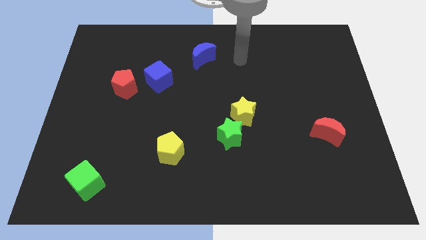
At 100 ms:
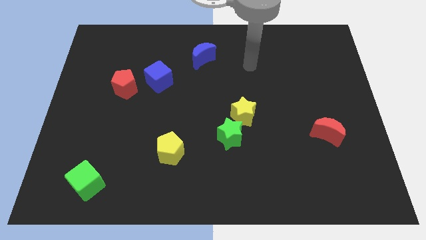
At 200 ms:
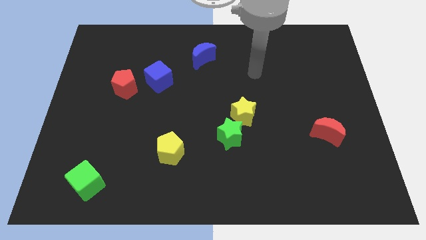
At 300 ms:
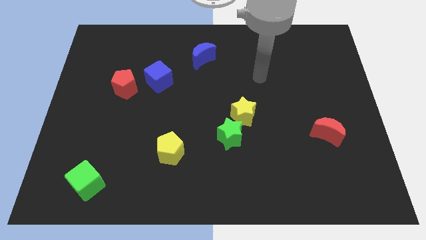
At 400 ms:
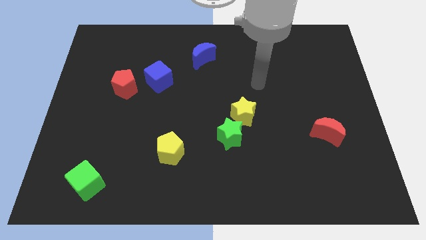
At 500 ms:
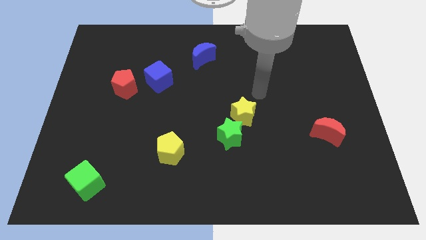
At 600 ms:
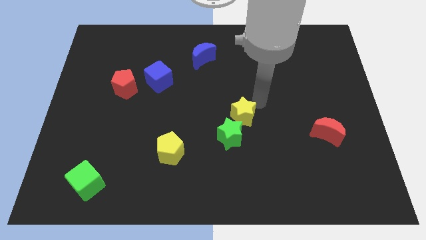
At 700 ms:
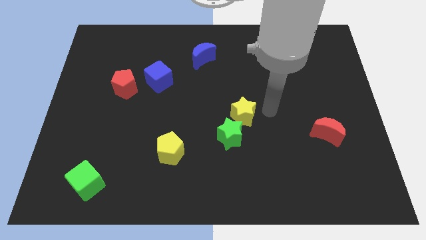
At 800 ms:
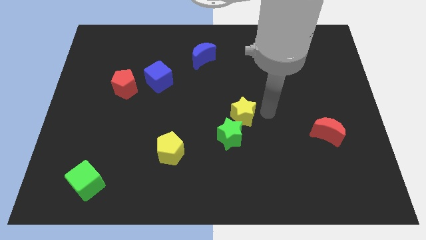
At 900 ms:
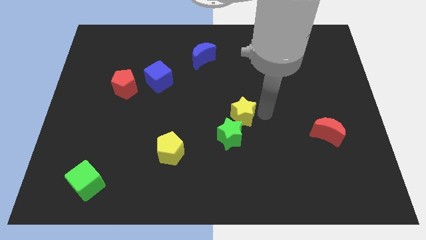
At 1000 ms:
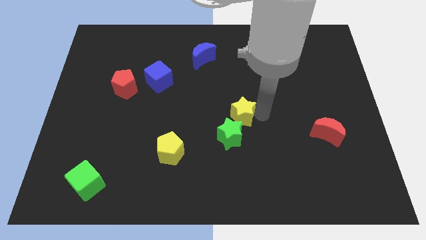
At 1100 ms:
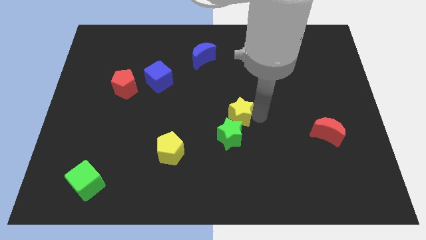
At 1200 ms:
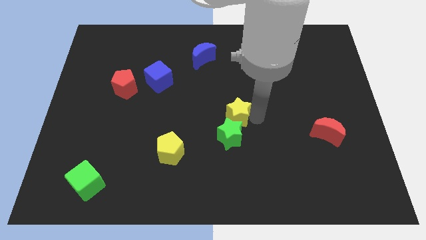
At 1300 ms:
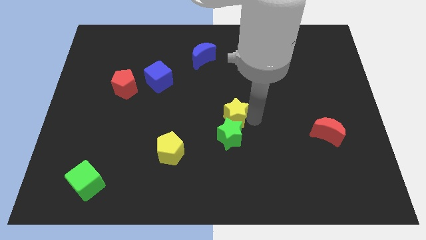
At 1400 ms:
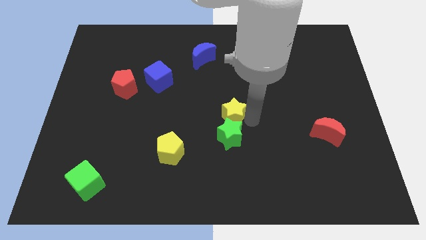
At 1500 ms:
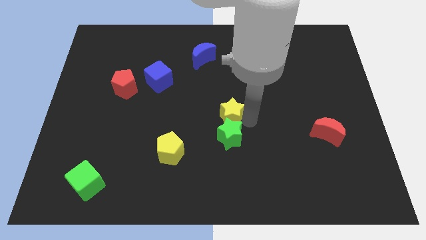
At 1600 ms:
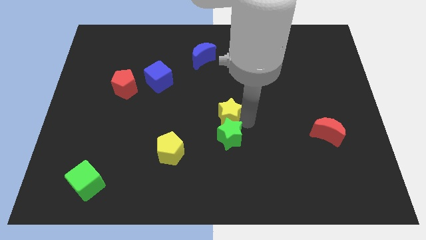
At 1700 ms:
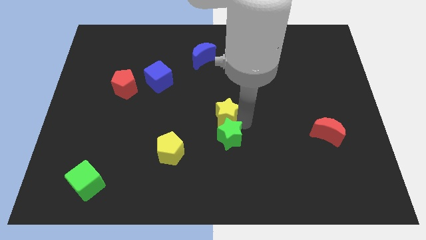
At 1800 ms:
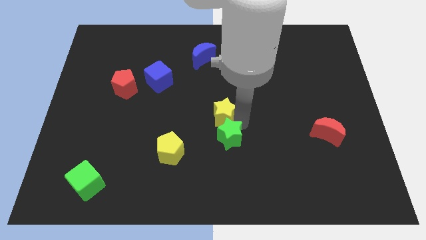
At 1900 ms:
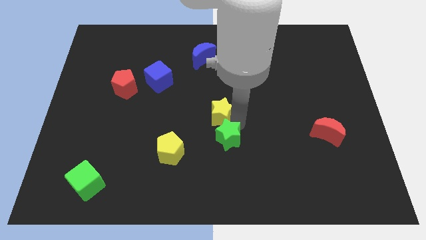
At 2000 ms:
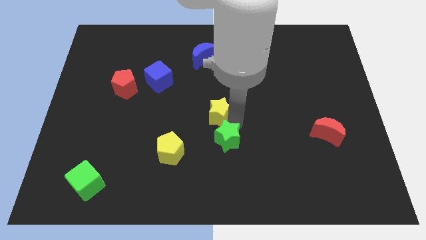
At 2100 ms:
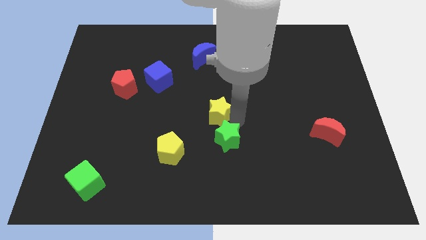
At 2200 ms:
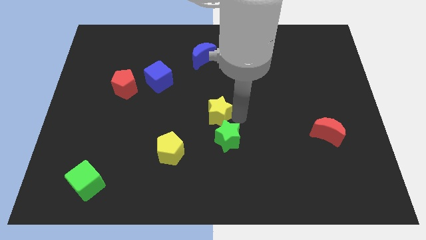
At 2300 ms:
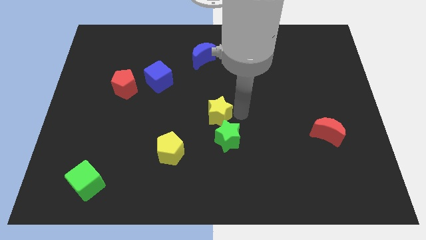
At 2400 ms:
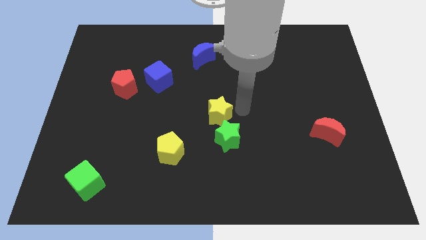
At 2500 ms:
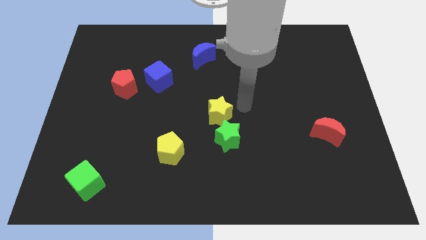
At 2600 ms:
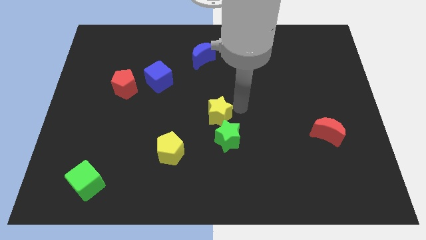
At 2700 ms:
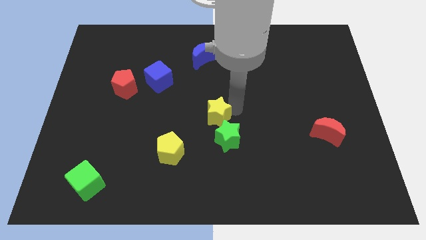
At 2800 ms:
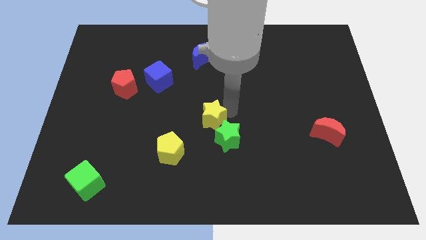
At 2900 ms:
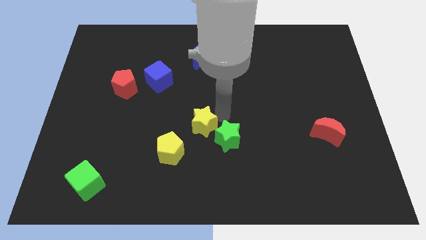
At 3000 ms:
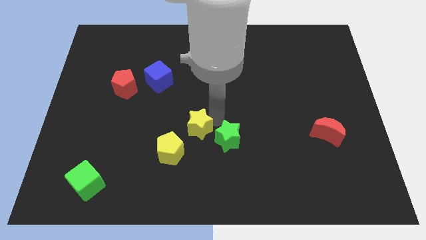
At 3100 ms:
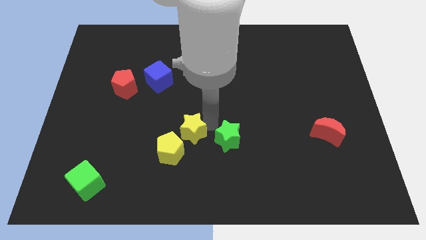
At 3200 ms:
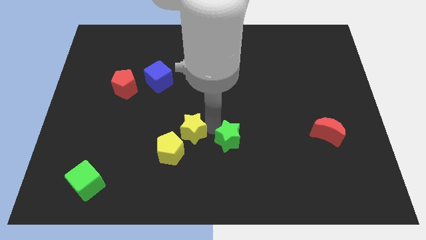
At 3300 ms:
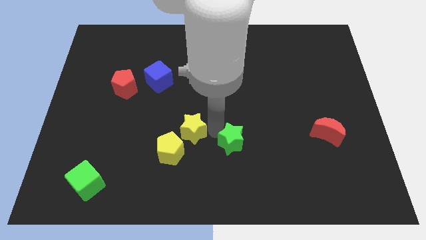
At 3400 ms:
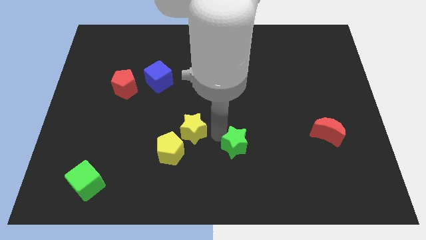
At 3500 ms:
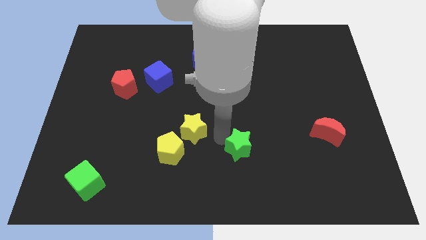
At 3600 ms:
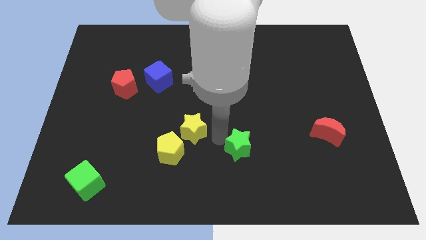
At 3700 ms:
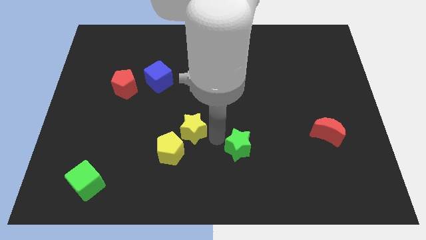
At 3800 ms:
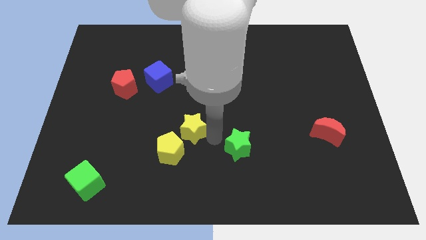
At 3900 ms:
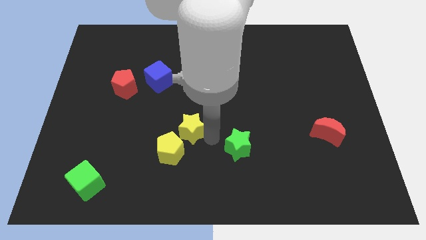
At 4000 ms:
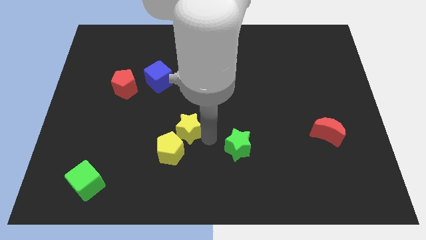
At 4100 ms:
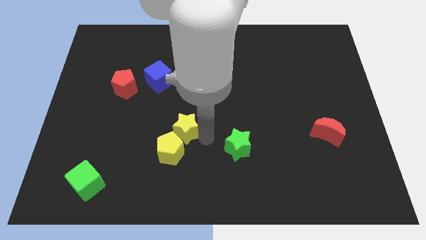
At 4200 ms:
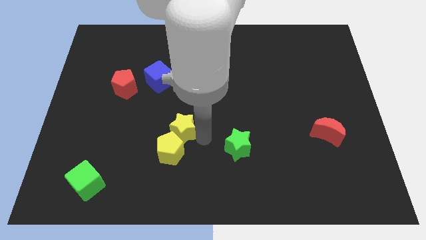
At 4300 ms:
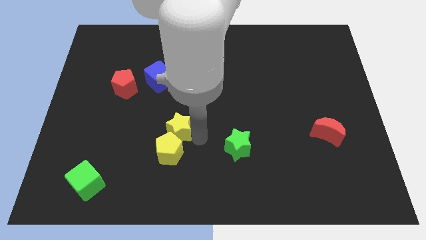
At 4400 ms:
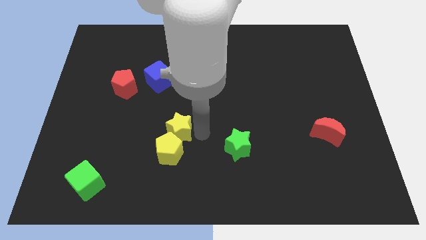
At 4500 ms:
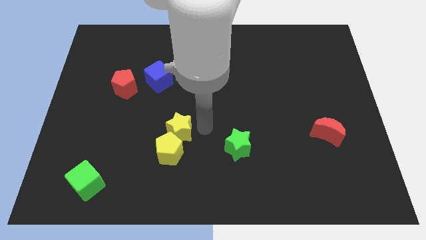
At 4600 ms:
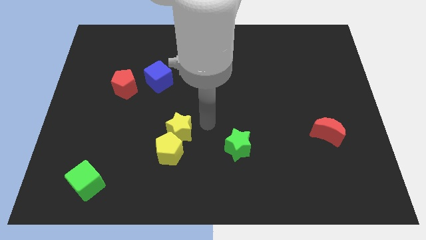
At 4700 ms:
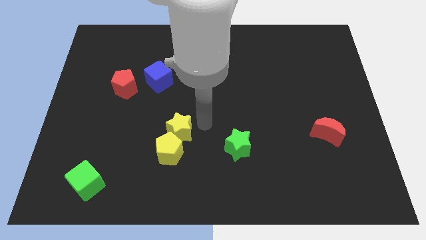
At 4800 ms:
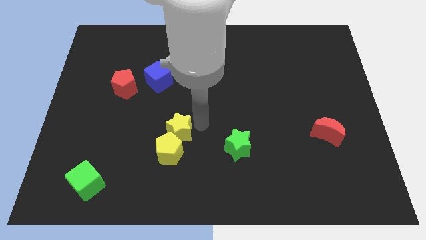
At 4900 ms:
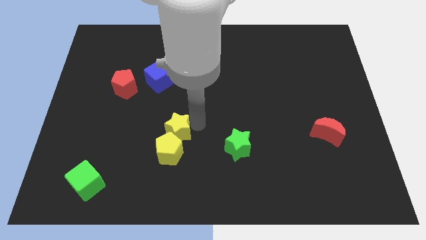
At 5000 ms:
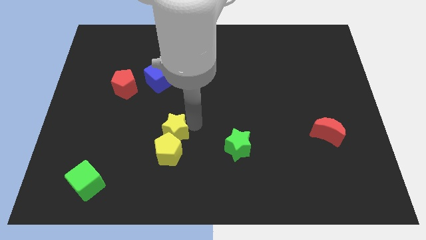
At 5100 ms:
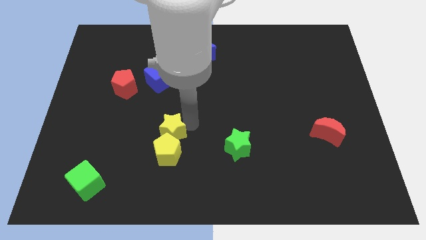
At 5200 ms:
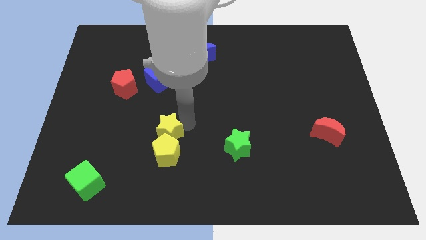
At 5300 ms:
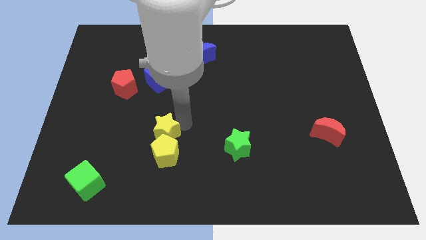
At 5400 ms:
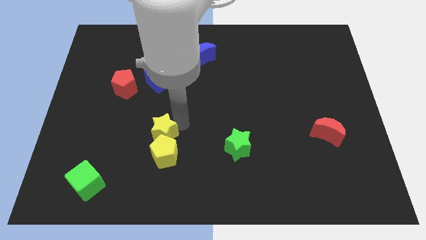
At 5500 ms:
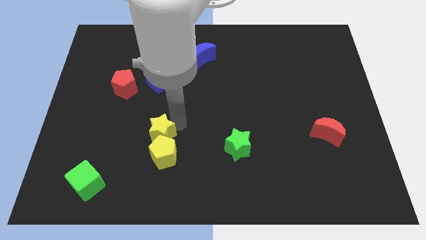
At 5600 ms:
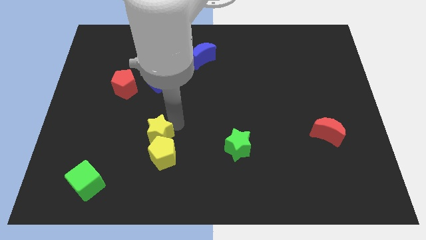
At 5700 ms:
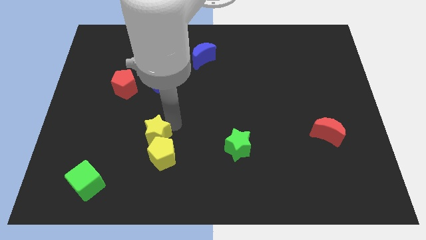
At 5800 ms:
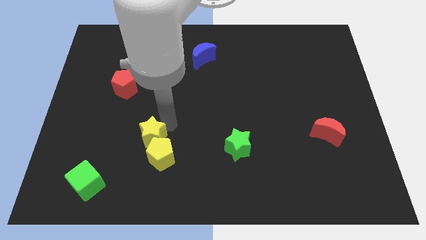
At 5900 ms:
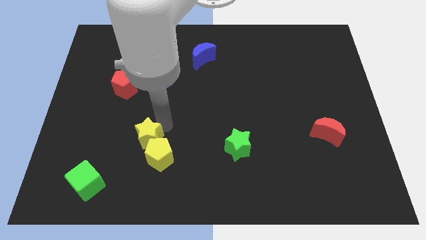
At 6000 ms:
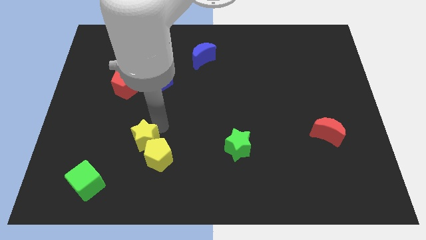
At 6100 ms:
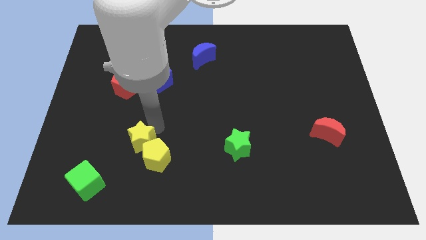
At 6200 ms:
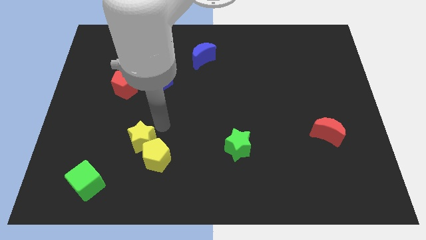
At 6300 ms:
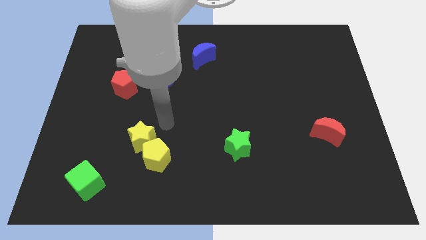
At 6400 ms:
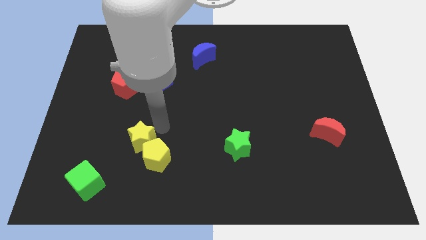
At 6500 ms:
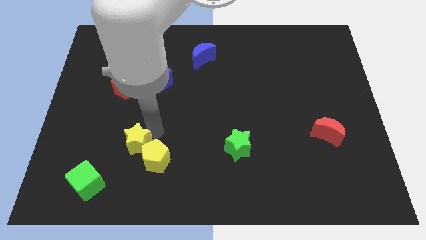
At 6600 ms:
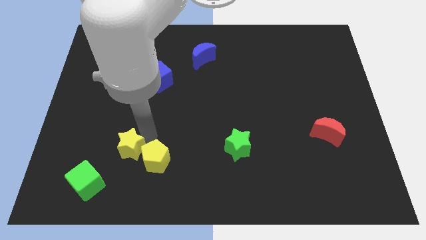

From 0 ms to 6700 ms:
put the yellow star to the top right of the green cube

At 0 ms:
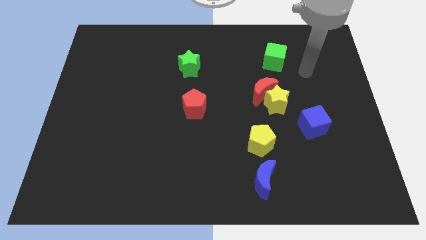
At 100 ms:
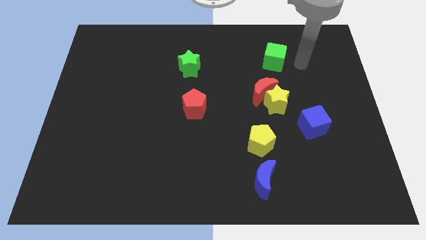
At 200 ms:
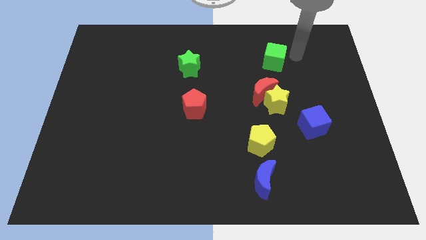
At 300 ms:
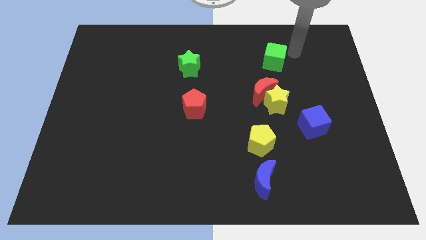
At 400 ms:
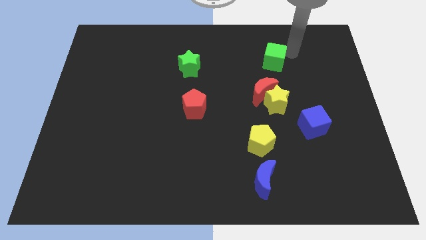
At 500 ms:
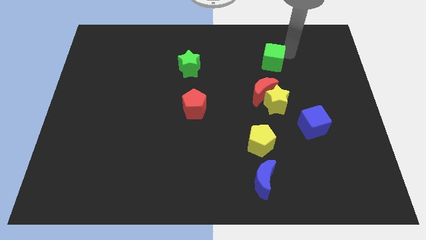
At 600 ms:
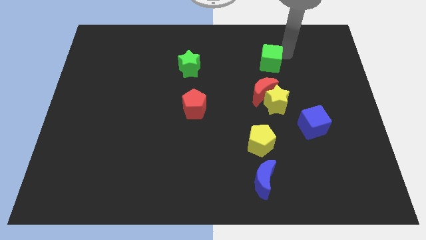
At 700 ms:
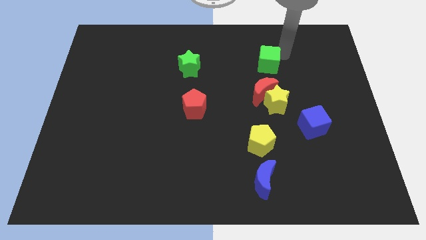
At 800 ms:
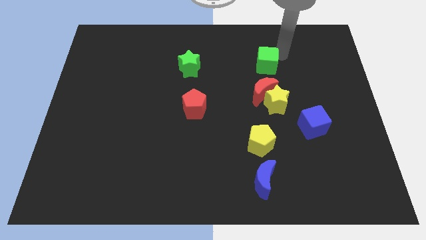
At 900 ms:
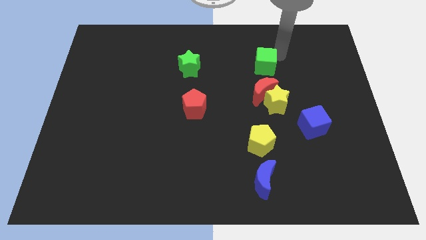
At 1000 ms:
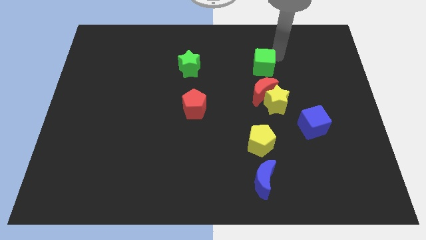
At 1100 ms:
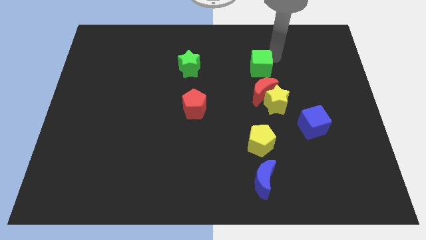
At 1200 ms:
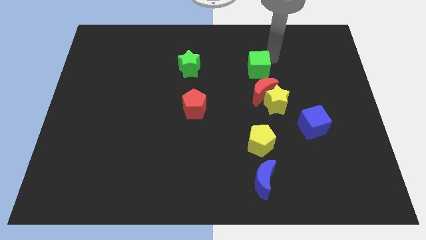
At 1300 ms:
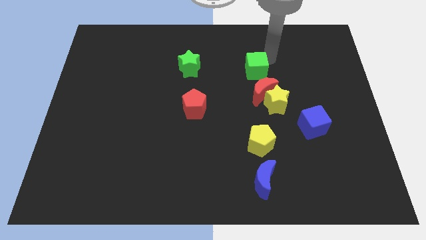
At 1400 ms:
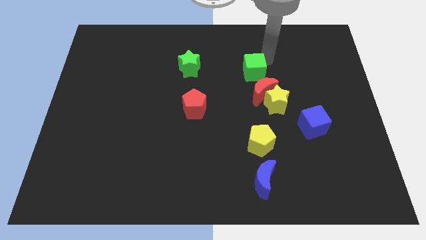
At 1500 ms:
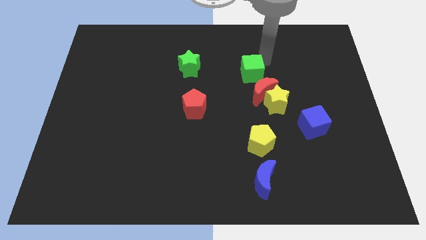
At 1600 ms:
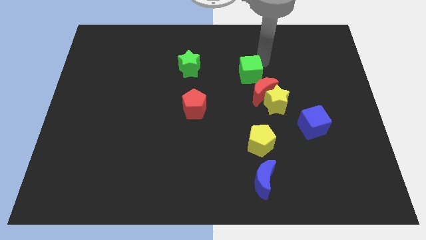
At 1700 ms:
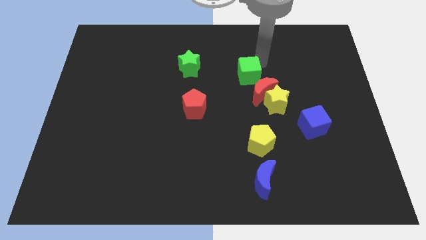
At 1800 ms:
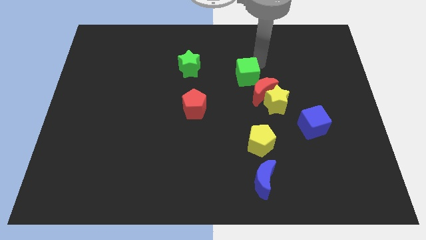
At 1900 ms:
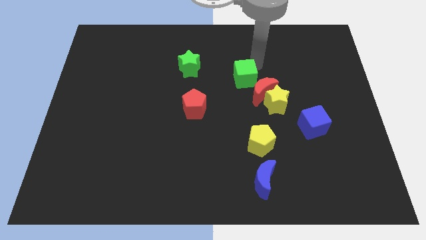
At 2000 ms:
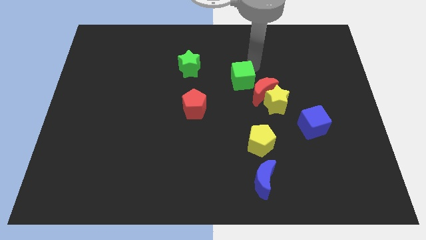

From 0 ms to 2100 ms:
move the green cube to the left side of the red moon
